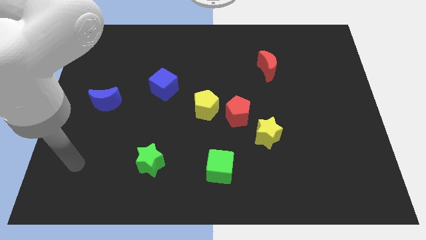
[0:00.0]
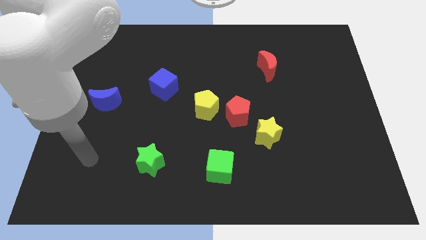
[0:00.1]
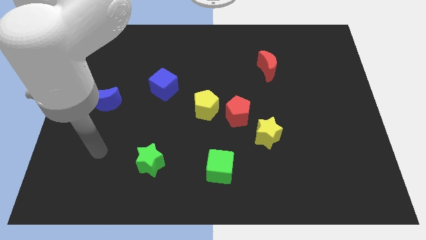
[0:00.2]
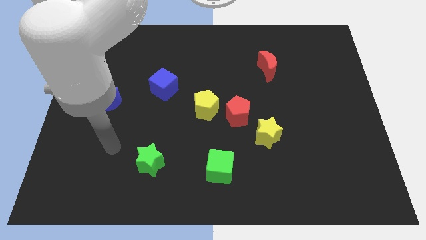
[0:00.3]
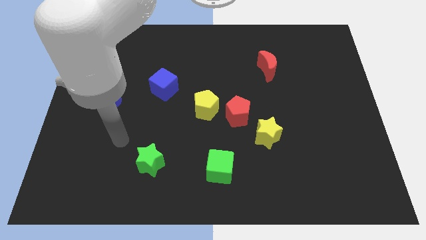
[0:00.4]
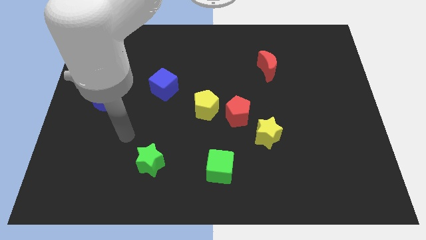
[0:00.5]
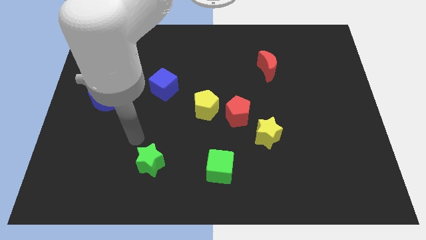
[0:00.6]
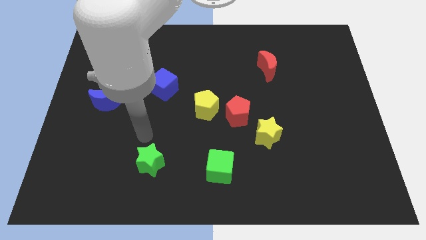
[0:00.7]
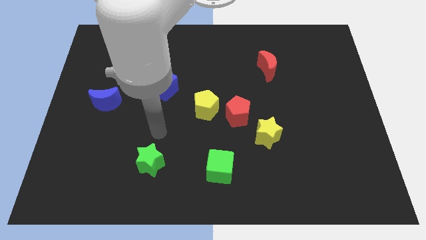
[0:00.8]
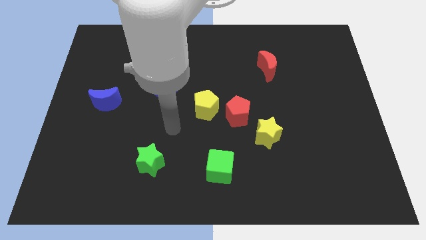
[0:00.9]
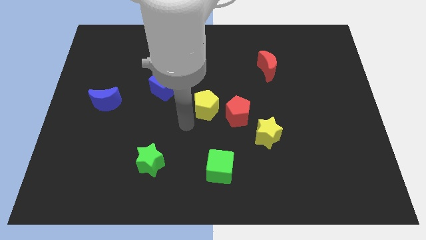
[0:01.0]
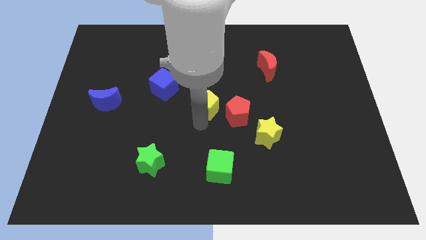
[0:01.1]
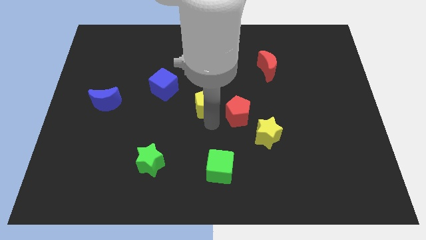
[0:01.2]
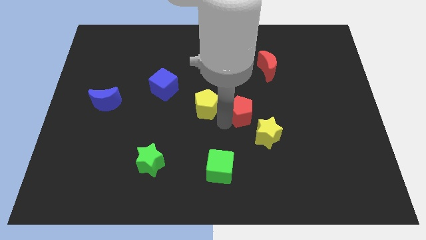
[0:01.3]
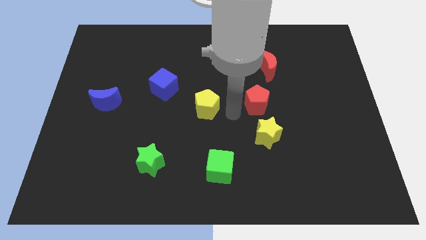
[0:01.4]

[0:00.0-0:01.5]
separate the yellow pentagon from the red pentagon

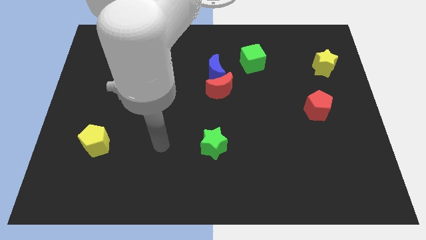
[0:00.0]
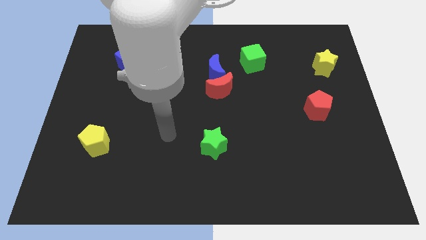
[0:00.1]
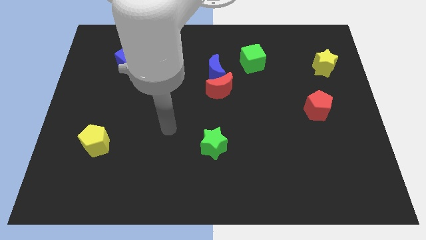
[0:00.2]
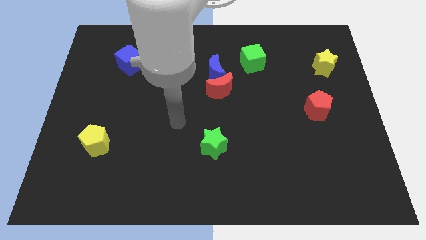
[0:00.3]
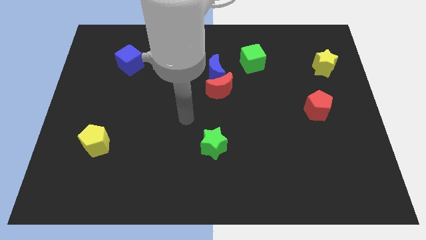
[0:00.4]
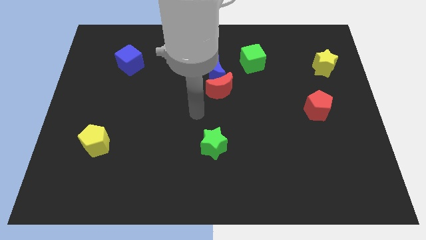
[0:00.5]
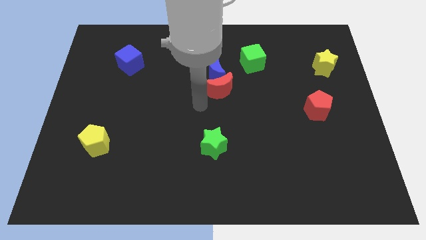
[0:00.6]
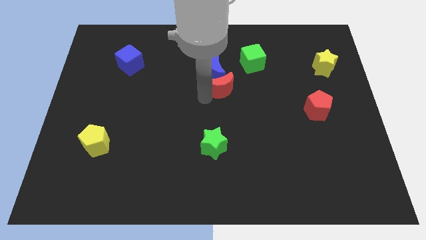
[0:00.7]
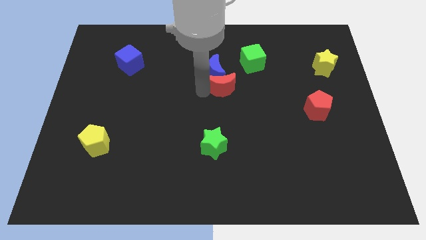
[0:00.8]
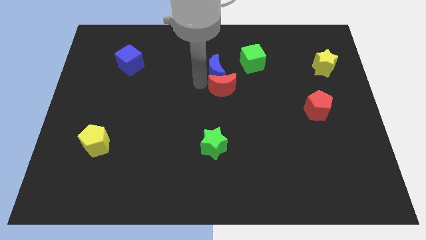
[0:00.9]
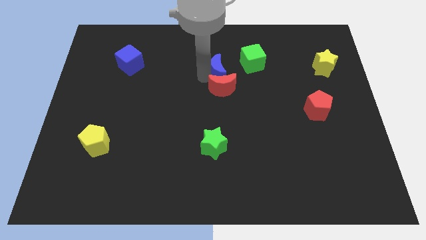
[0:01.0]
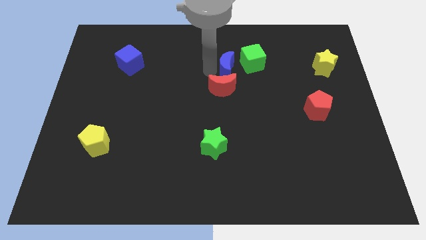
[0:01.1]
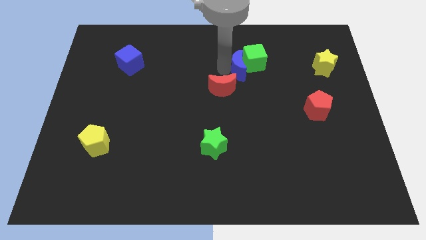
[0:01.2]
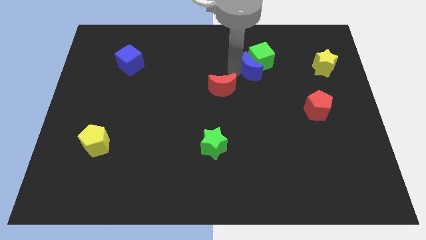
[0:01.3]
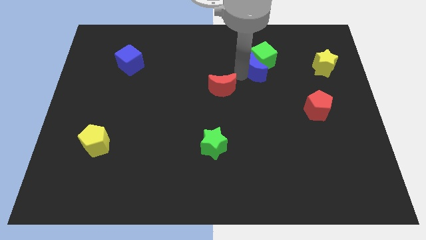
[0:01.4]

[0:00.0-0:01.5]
separate the red moon from the blue moon

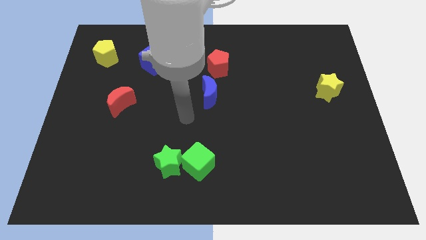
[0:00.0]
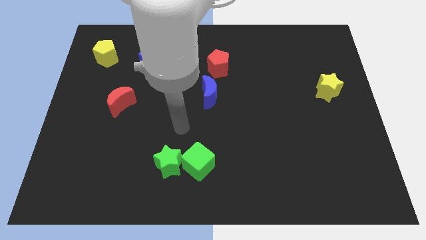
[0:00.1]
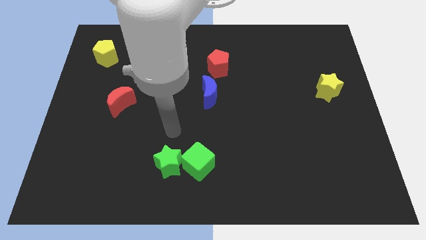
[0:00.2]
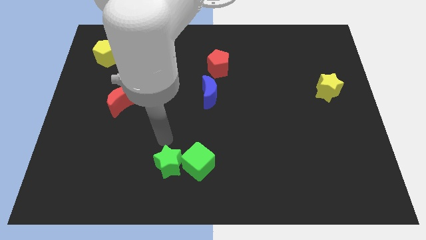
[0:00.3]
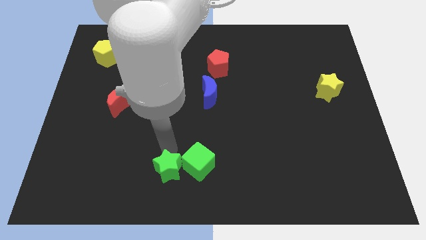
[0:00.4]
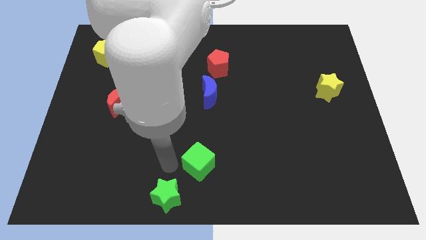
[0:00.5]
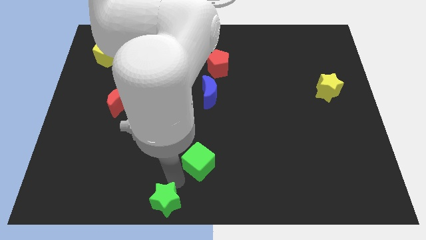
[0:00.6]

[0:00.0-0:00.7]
separate the green cube from the green star

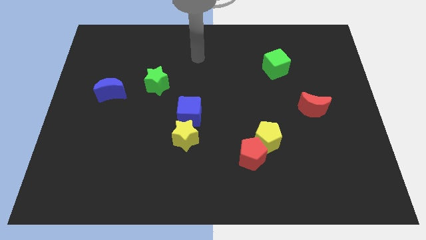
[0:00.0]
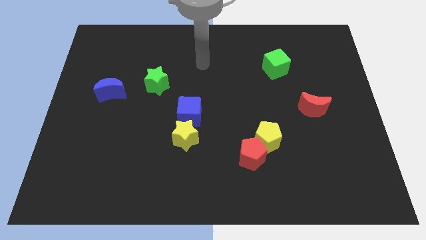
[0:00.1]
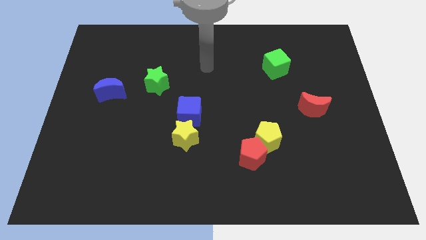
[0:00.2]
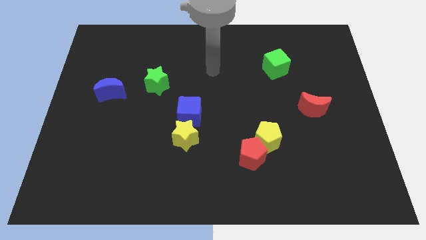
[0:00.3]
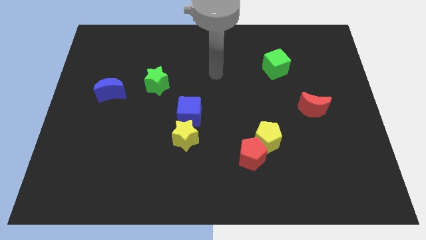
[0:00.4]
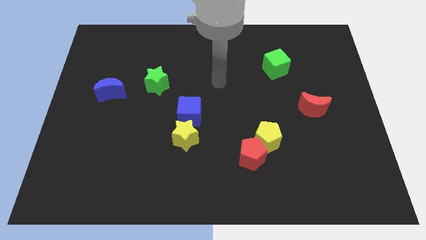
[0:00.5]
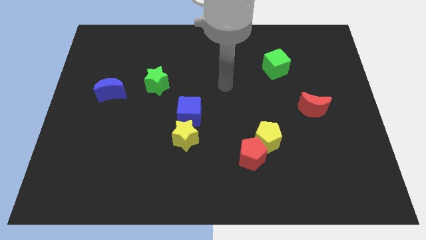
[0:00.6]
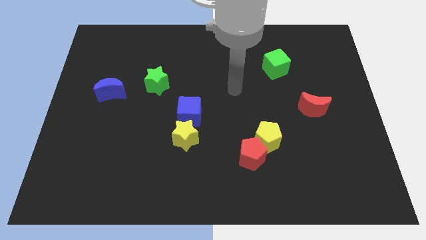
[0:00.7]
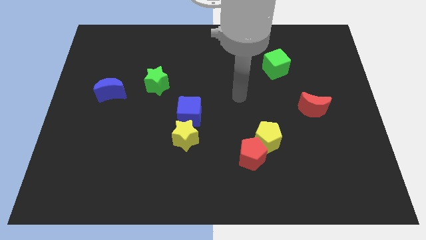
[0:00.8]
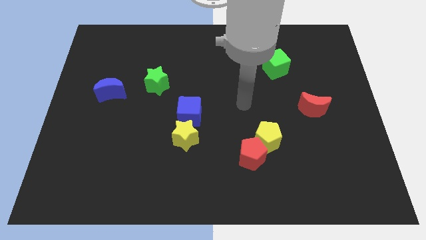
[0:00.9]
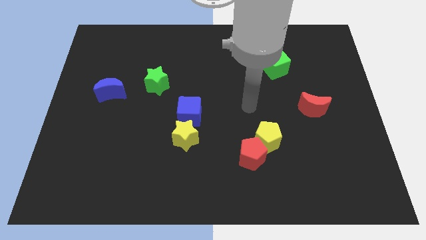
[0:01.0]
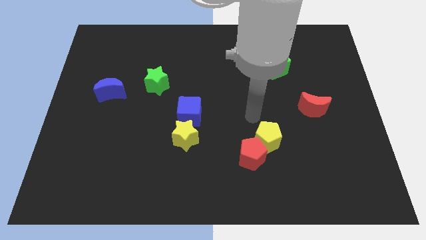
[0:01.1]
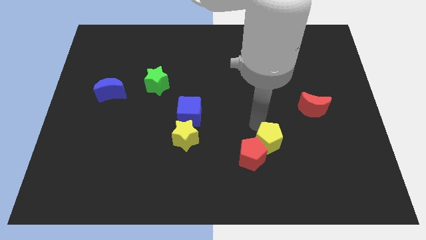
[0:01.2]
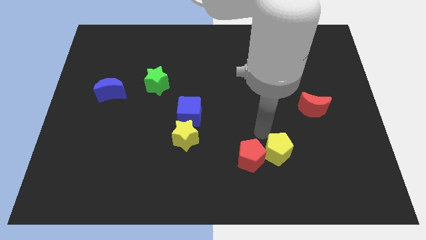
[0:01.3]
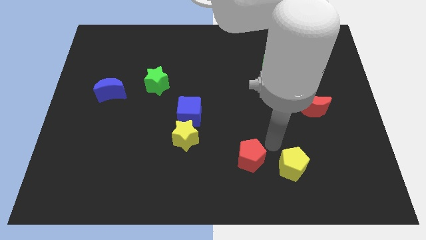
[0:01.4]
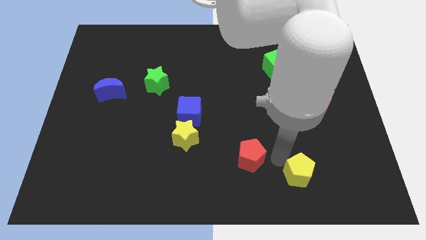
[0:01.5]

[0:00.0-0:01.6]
pull the red pentagon apart from the yellow pentagon

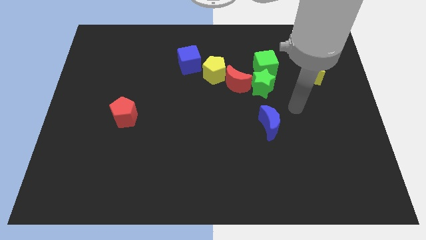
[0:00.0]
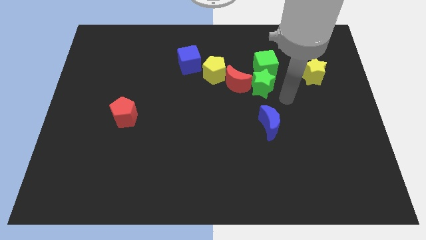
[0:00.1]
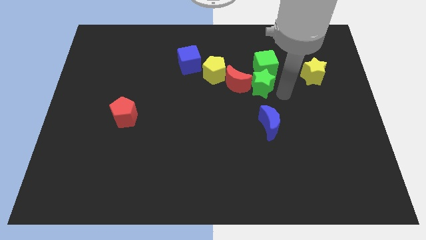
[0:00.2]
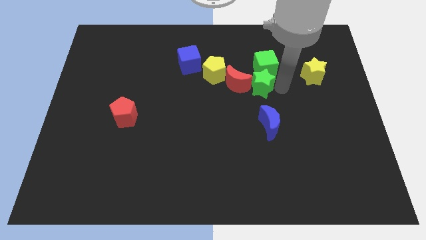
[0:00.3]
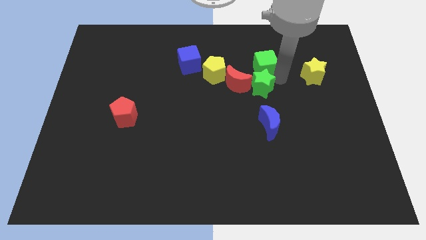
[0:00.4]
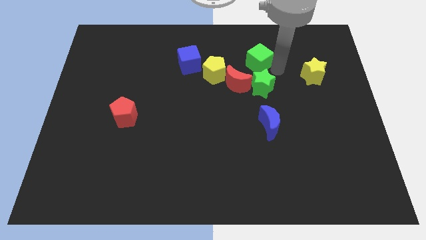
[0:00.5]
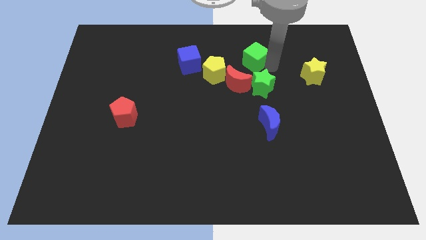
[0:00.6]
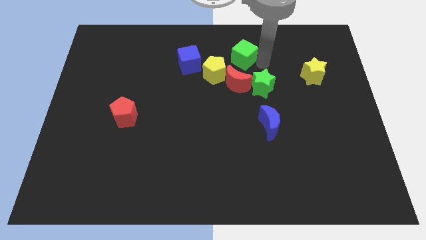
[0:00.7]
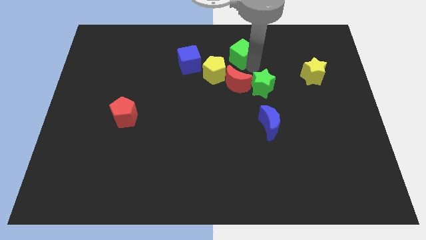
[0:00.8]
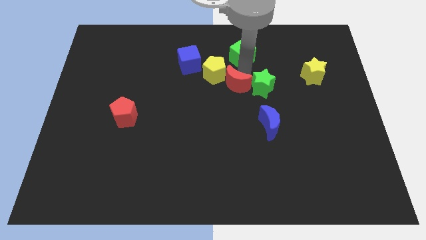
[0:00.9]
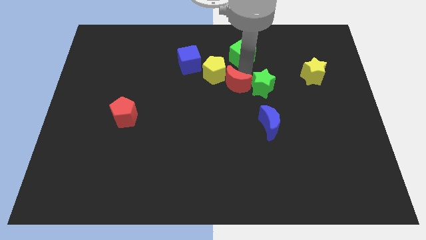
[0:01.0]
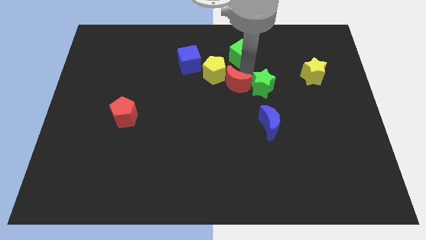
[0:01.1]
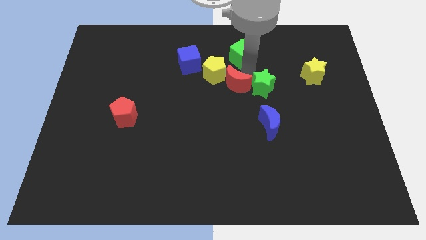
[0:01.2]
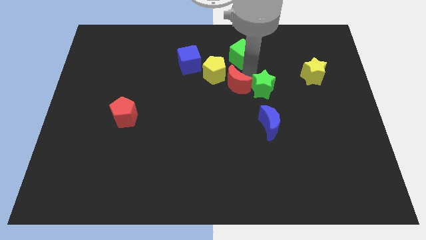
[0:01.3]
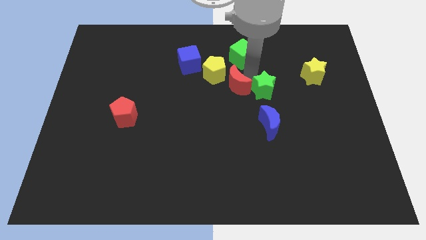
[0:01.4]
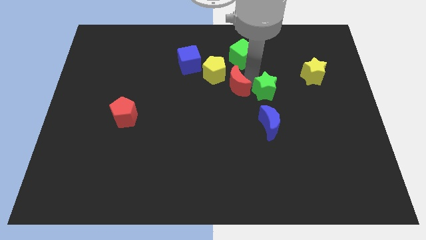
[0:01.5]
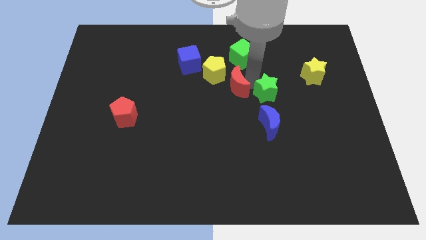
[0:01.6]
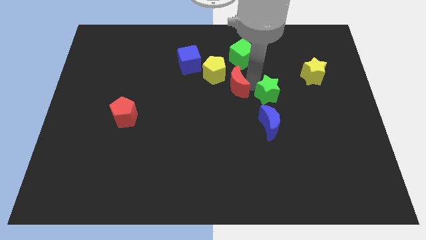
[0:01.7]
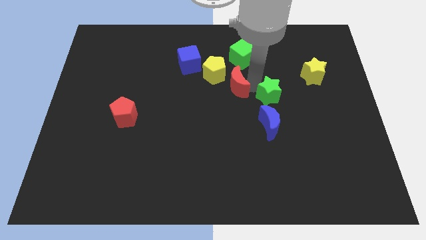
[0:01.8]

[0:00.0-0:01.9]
pull the green star apart from the green cube and red moon

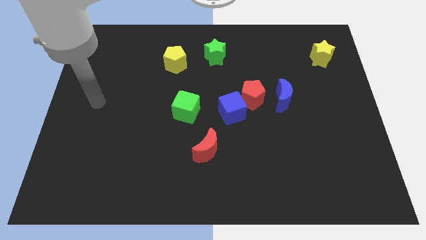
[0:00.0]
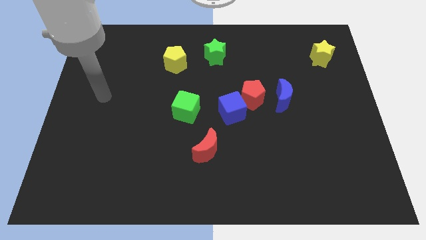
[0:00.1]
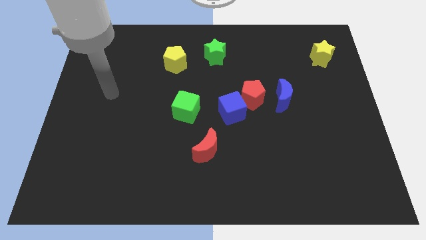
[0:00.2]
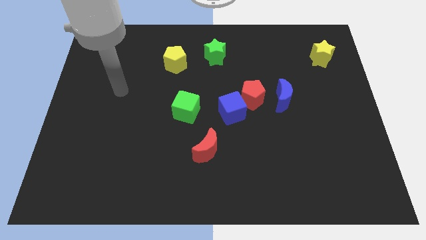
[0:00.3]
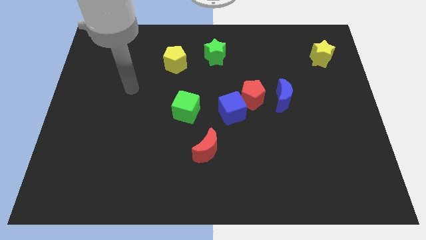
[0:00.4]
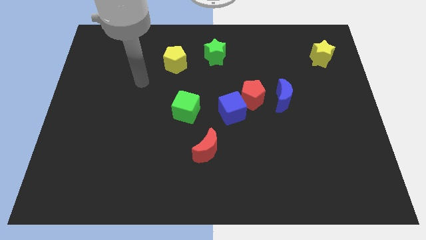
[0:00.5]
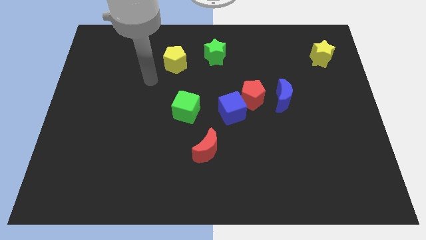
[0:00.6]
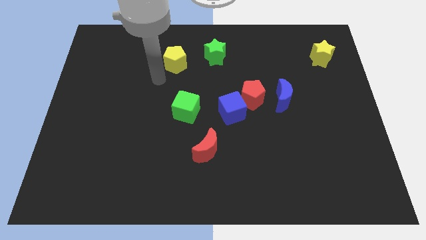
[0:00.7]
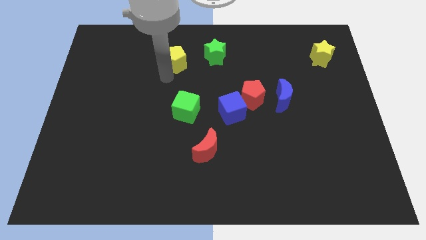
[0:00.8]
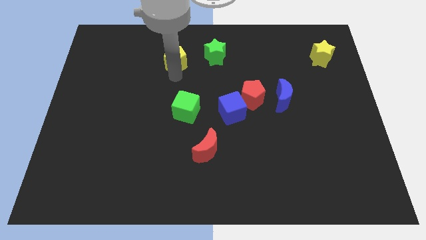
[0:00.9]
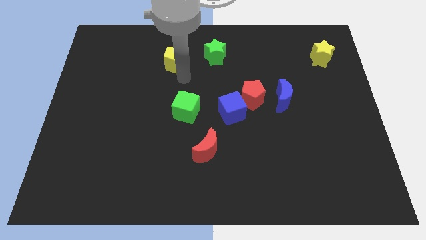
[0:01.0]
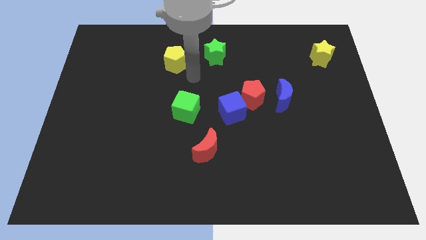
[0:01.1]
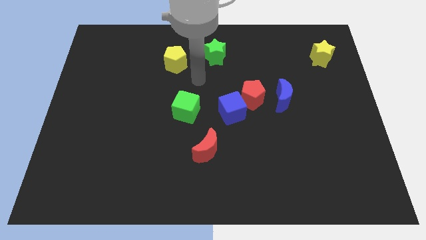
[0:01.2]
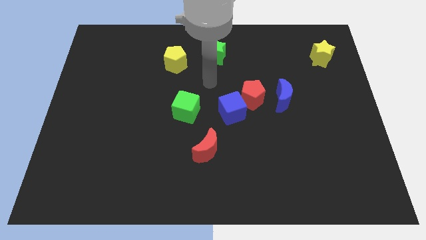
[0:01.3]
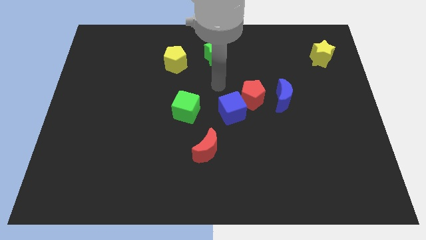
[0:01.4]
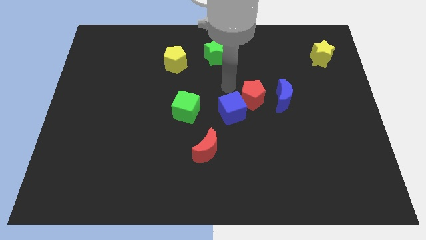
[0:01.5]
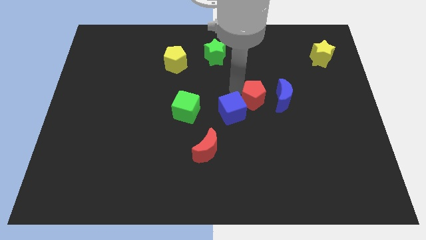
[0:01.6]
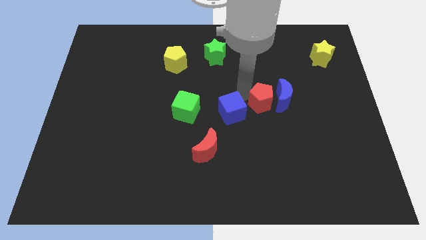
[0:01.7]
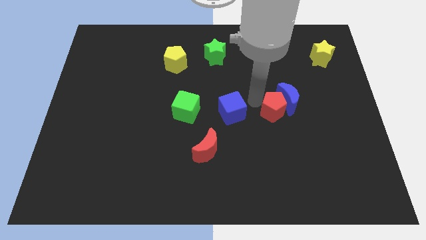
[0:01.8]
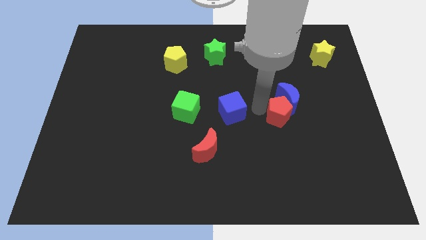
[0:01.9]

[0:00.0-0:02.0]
move the blue cube away from the red pentagon

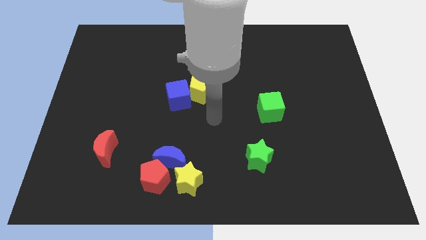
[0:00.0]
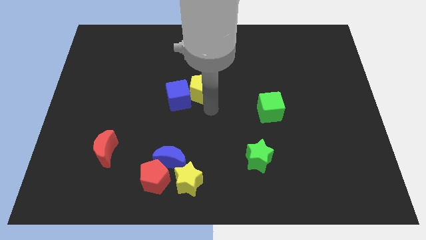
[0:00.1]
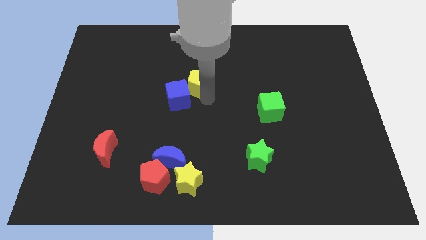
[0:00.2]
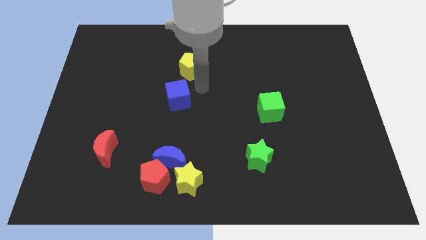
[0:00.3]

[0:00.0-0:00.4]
pull the blue cube apart from the yellow pentagon
